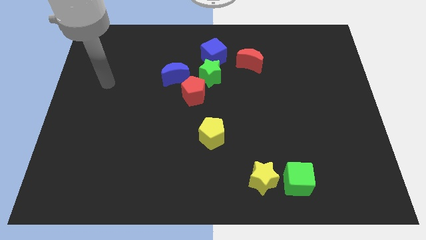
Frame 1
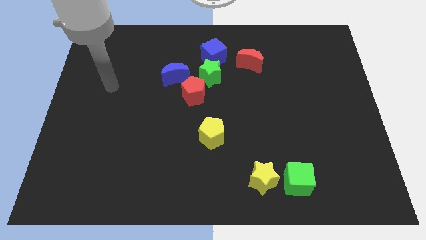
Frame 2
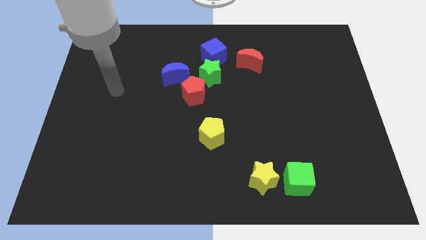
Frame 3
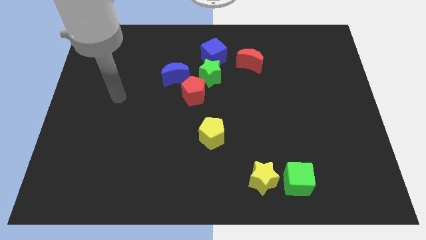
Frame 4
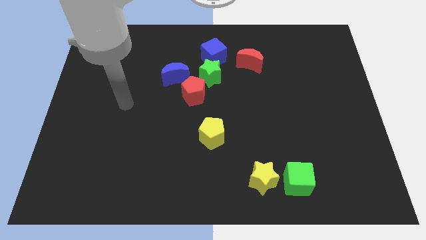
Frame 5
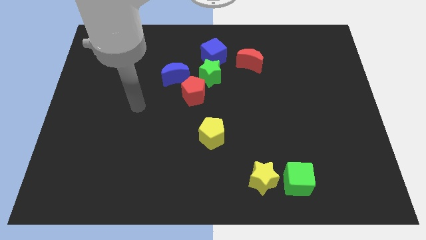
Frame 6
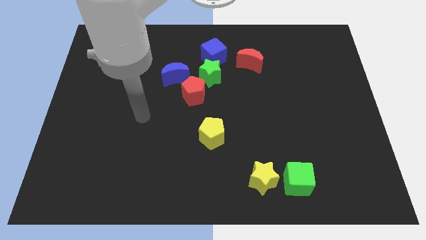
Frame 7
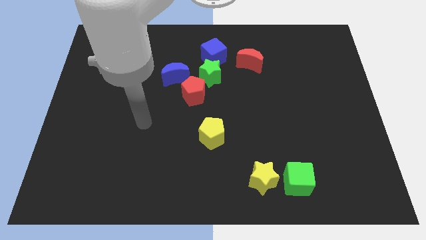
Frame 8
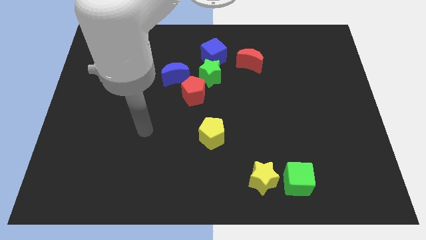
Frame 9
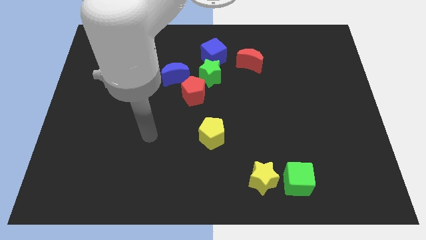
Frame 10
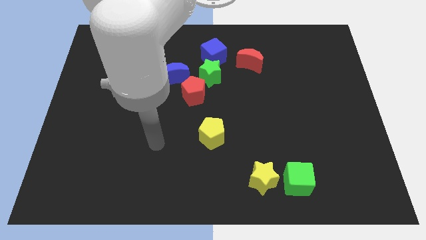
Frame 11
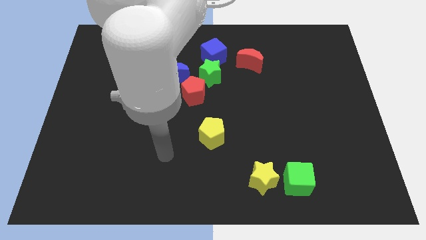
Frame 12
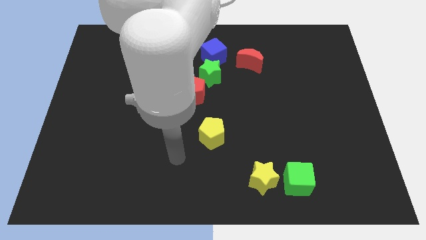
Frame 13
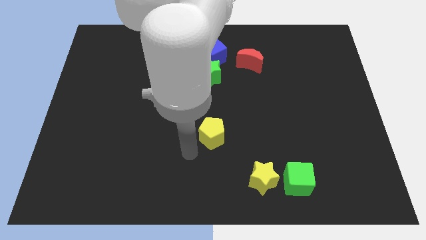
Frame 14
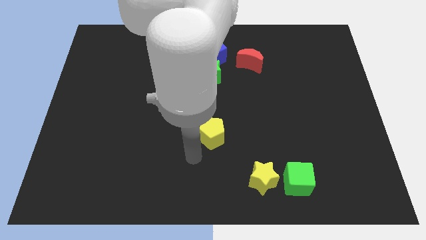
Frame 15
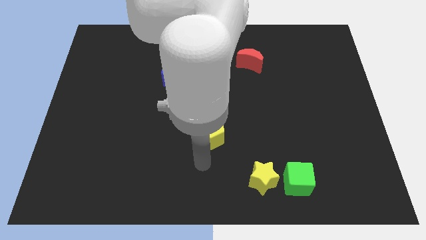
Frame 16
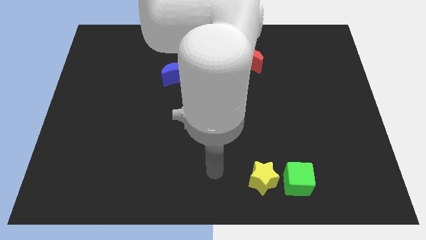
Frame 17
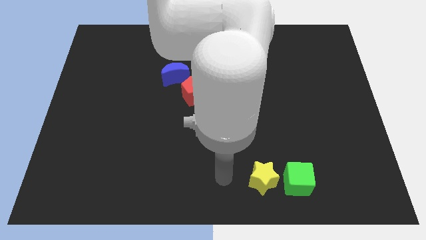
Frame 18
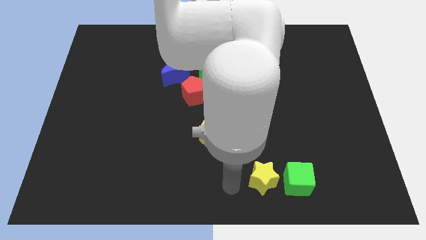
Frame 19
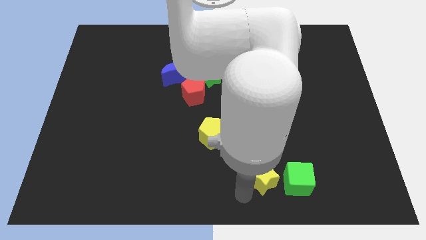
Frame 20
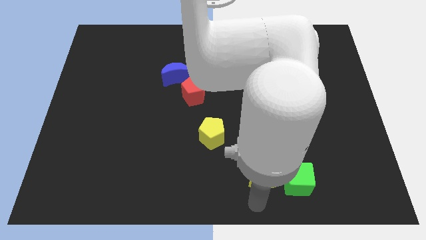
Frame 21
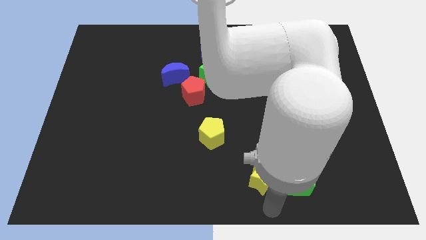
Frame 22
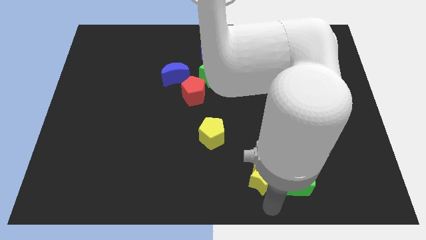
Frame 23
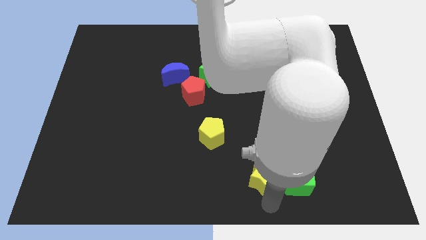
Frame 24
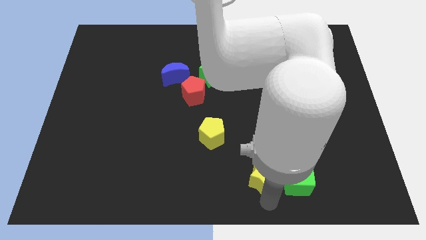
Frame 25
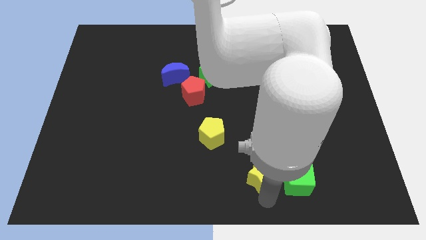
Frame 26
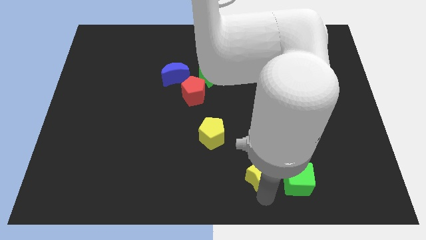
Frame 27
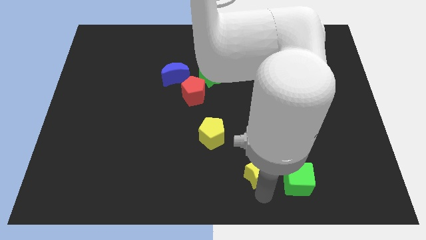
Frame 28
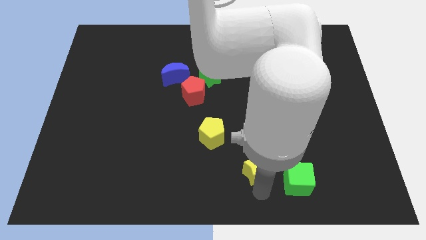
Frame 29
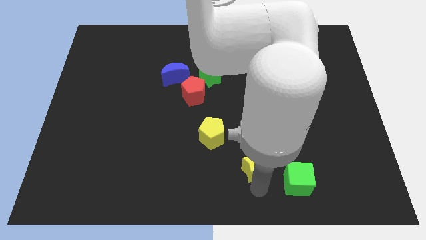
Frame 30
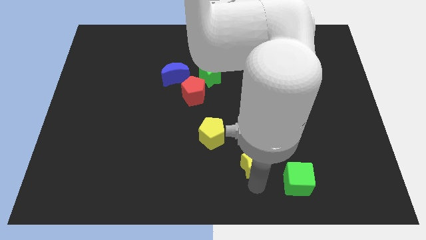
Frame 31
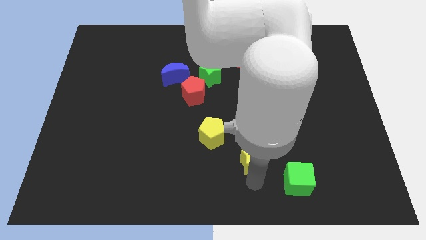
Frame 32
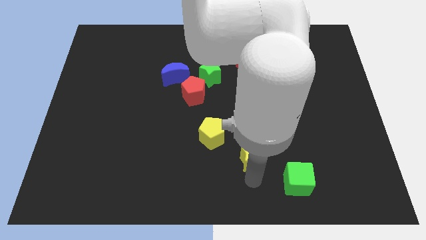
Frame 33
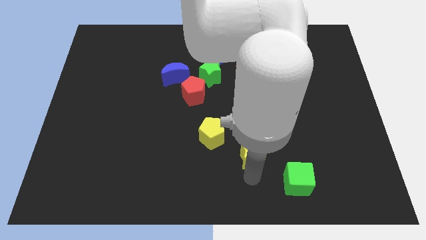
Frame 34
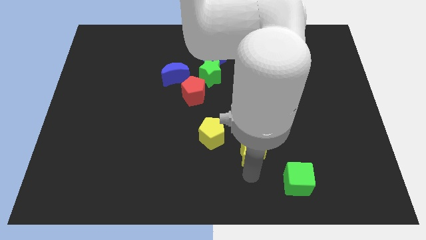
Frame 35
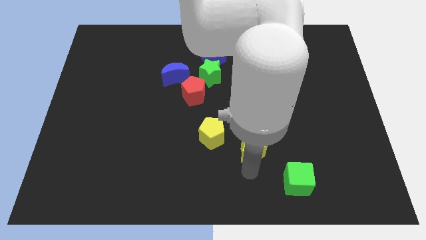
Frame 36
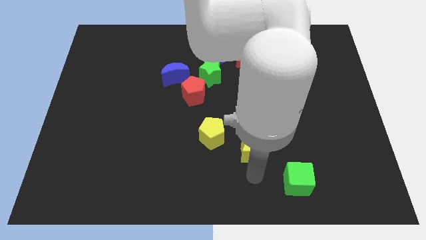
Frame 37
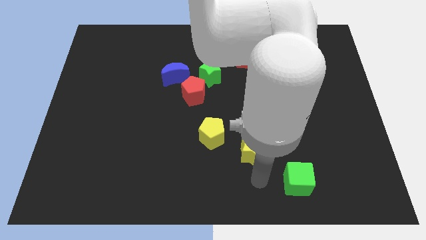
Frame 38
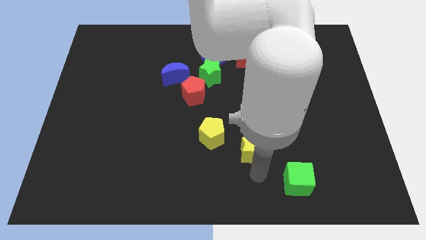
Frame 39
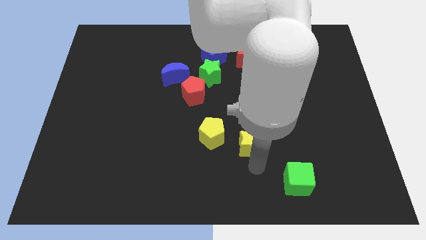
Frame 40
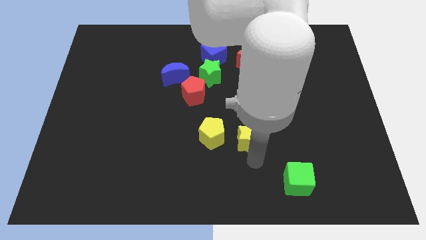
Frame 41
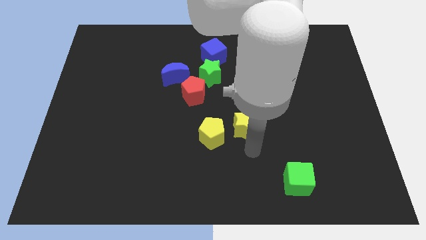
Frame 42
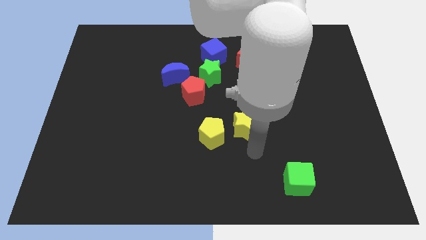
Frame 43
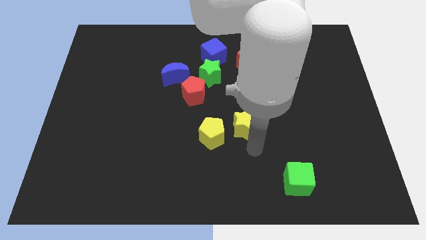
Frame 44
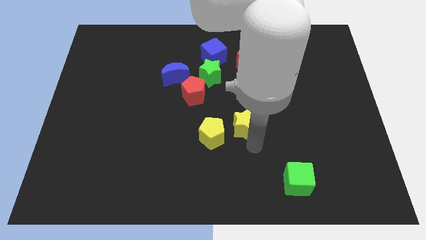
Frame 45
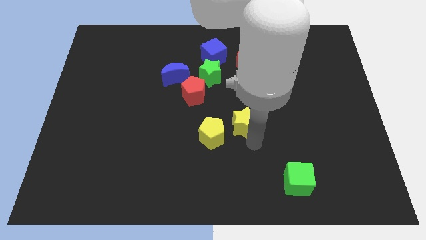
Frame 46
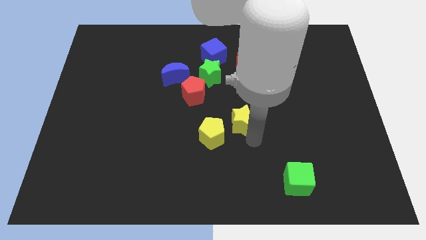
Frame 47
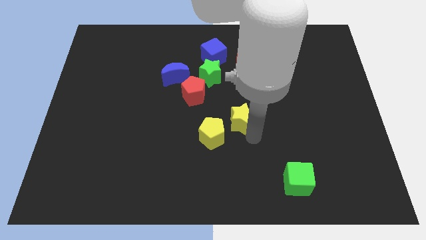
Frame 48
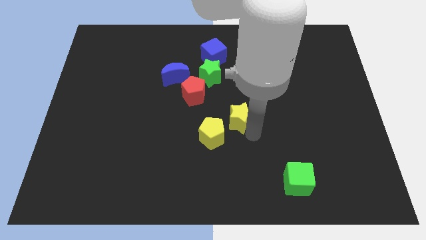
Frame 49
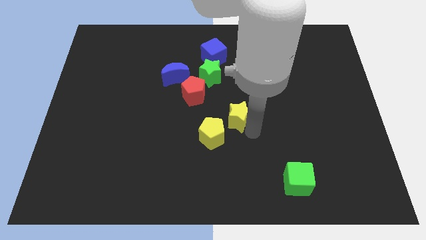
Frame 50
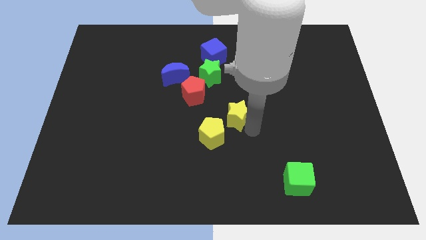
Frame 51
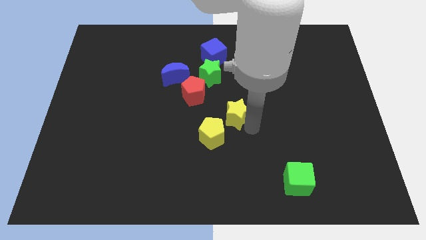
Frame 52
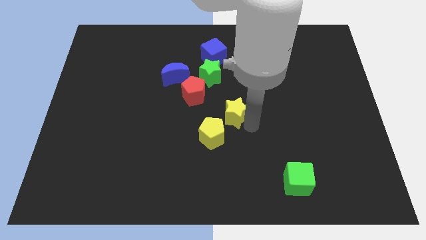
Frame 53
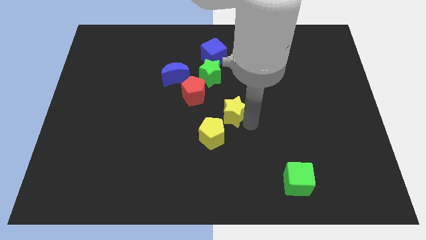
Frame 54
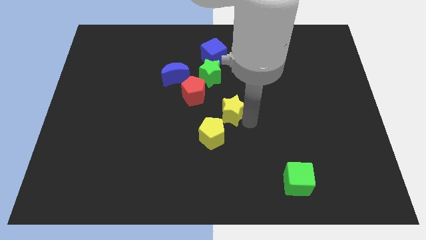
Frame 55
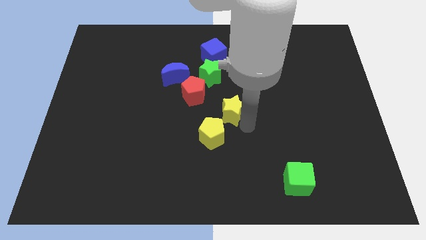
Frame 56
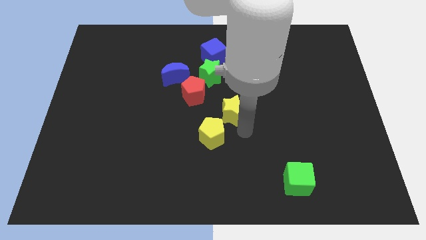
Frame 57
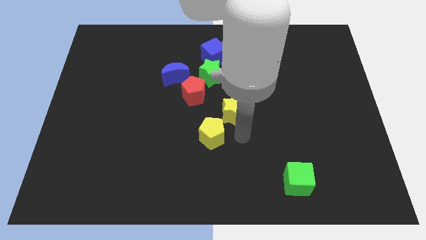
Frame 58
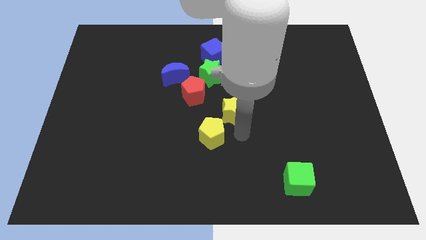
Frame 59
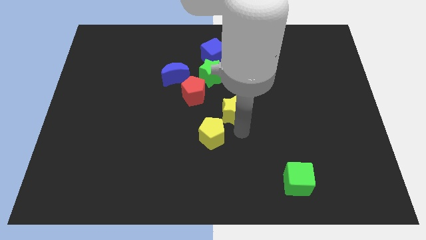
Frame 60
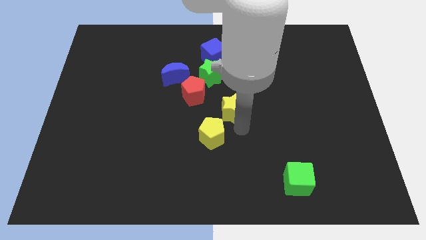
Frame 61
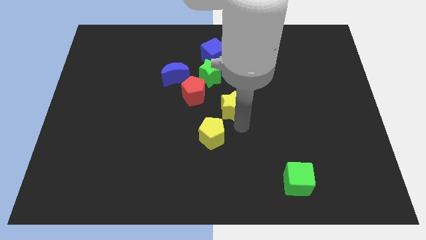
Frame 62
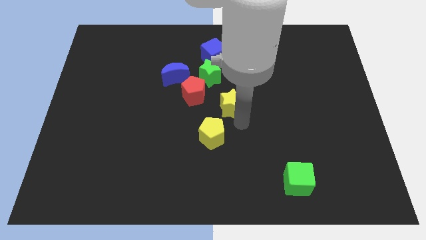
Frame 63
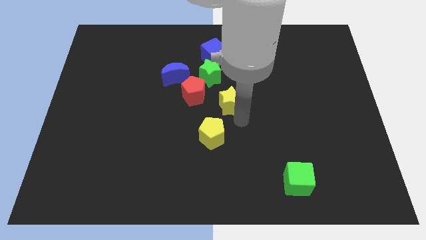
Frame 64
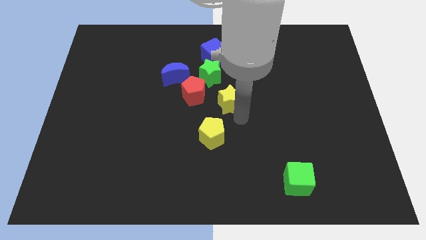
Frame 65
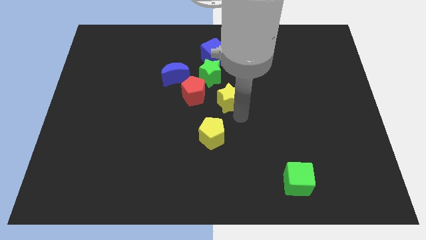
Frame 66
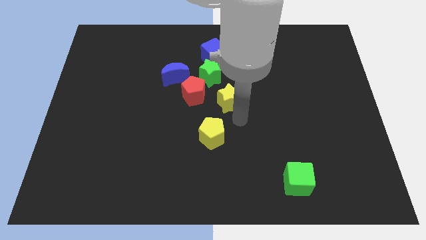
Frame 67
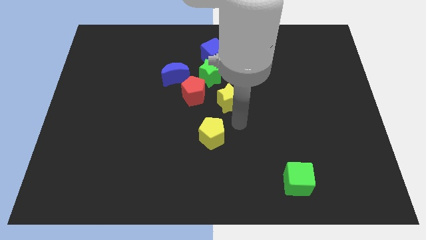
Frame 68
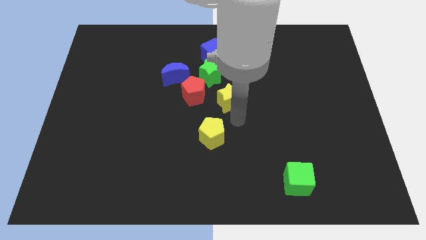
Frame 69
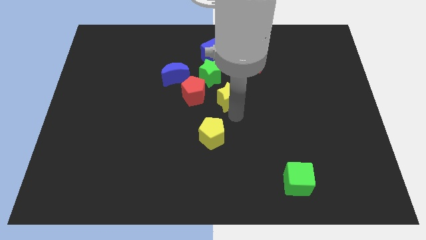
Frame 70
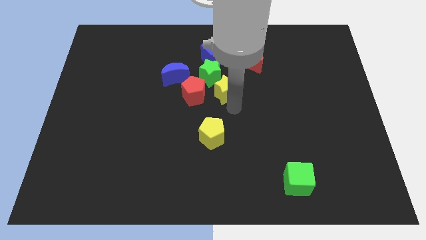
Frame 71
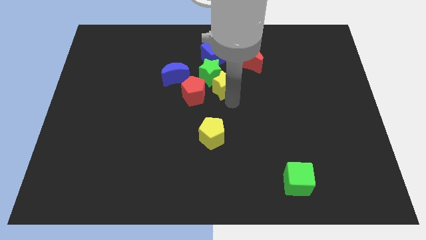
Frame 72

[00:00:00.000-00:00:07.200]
slide the yellow star to the green star
